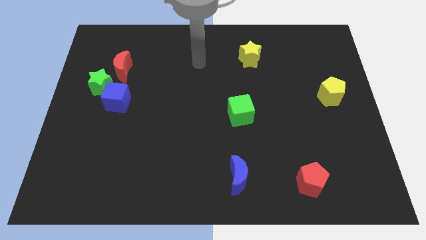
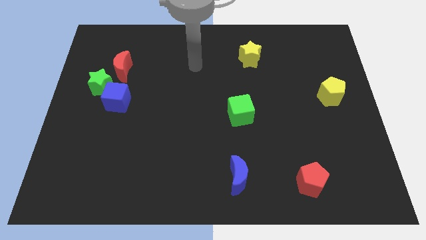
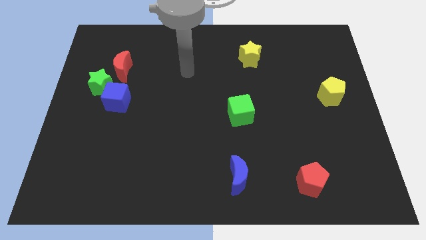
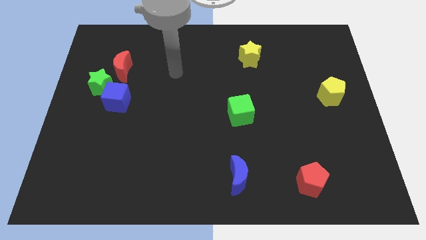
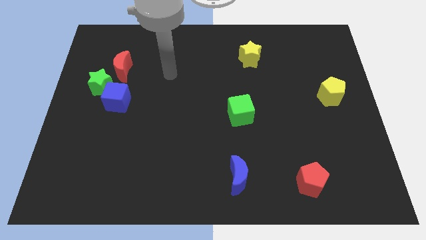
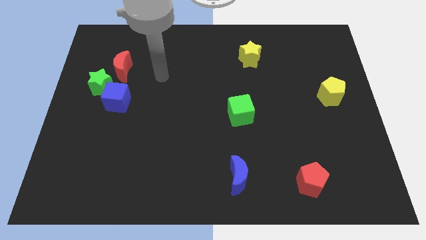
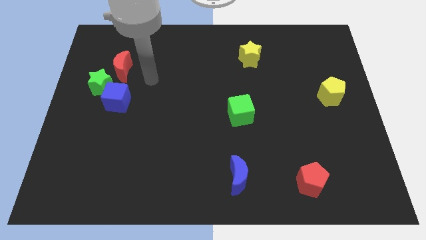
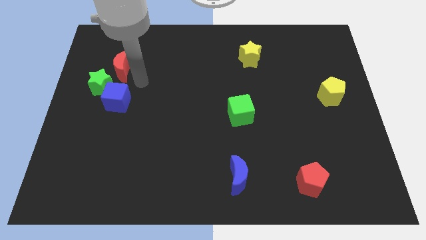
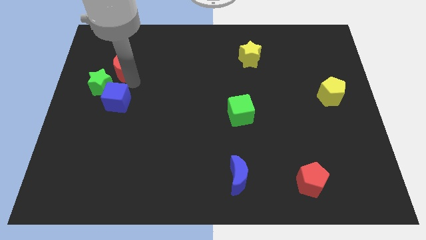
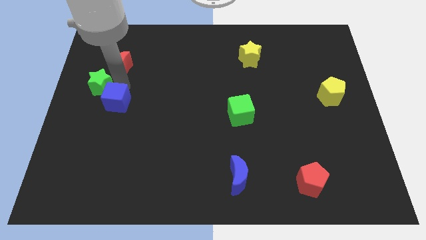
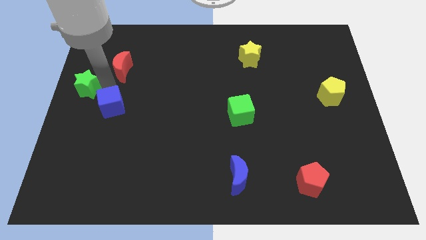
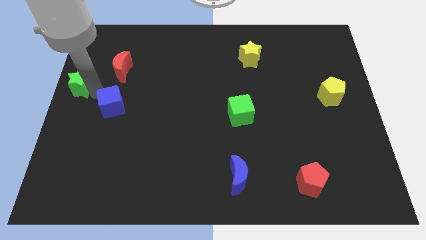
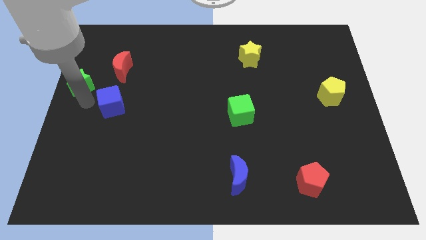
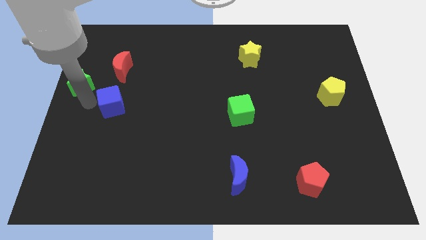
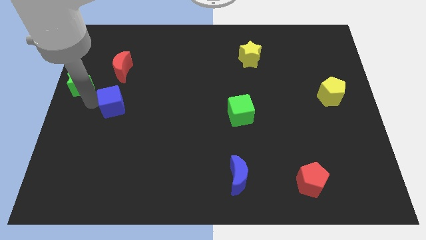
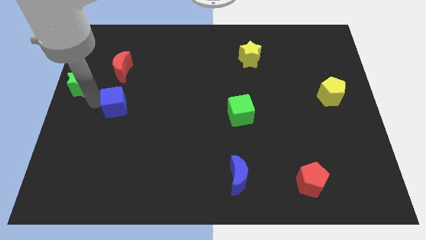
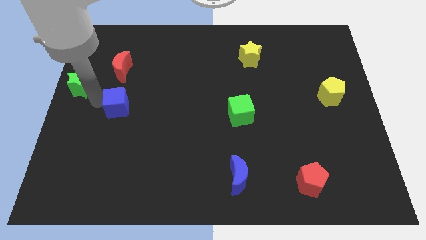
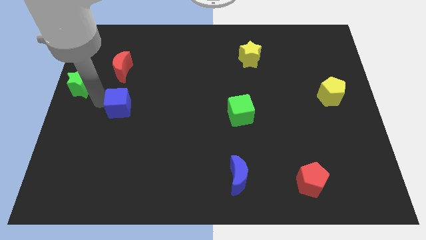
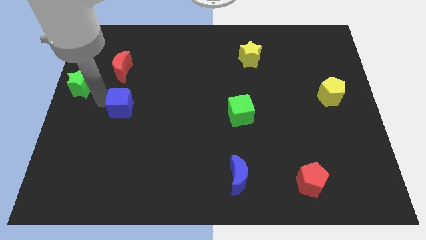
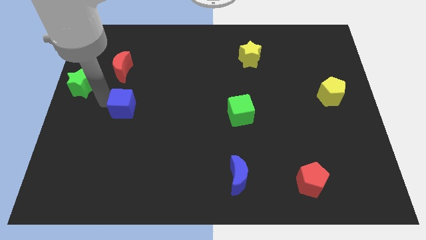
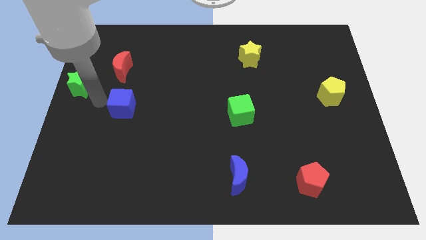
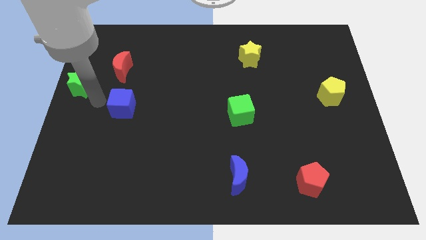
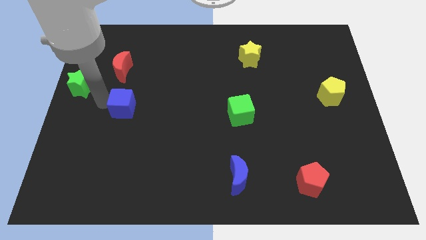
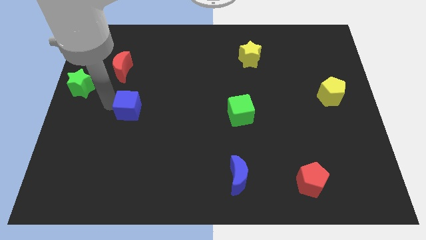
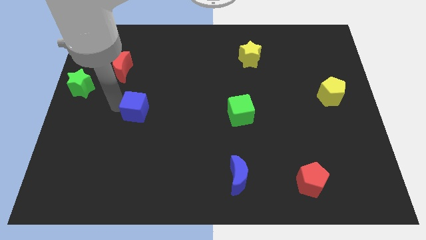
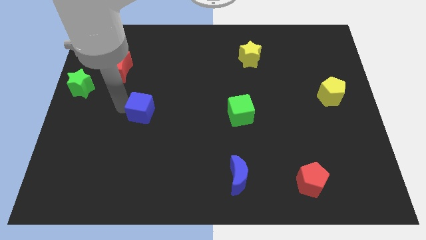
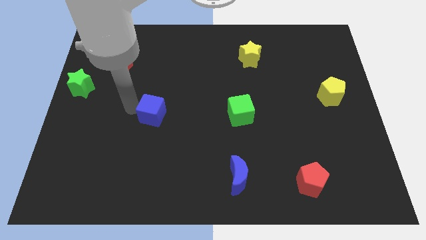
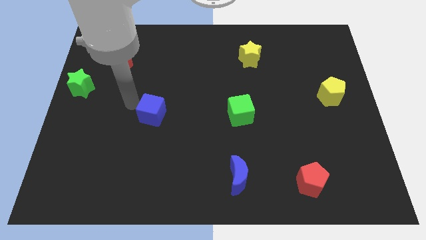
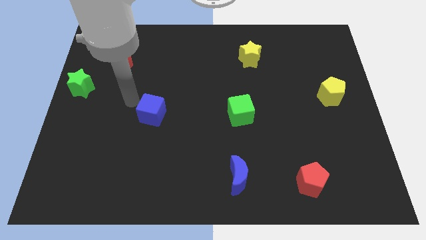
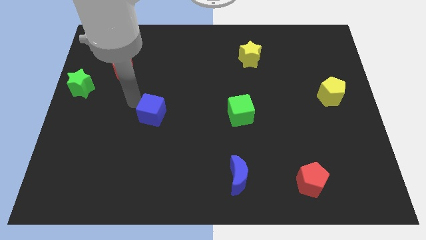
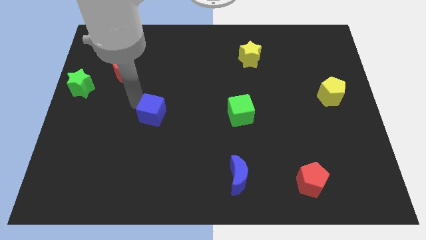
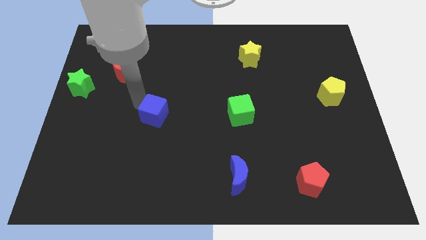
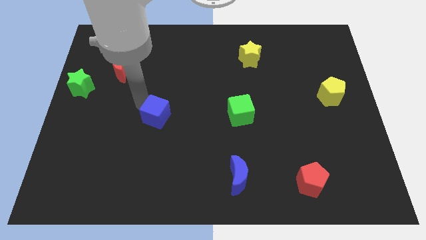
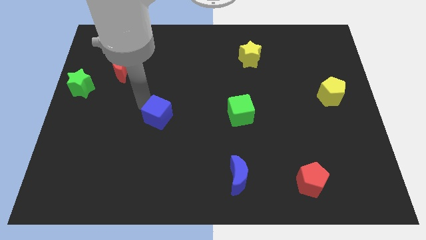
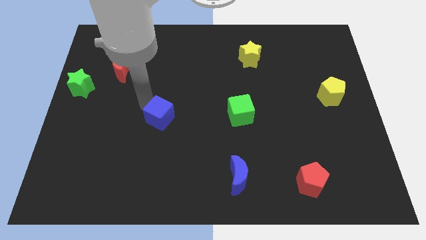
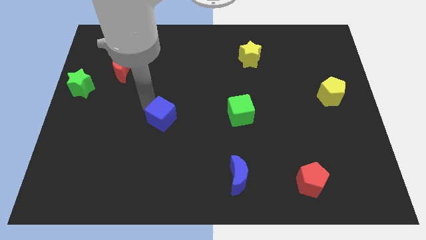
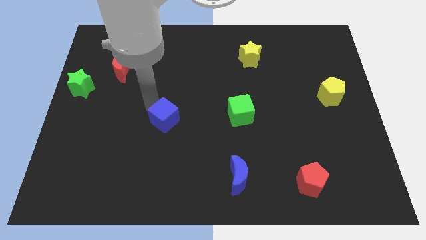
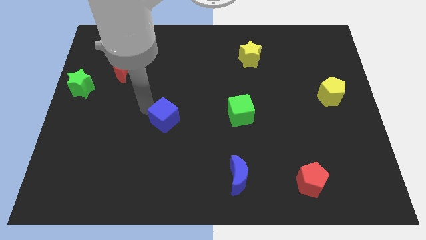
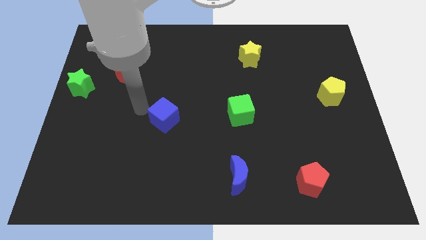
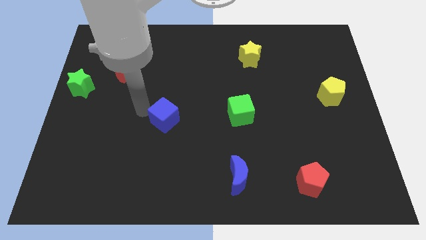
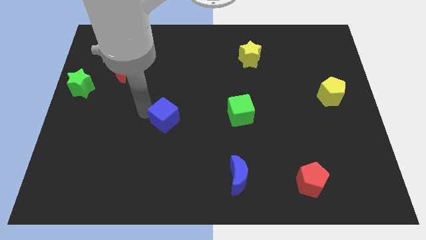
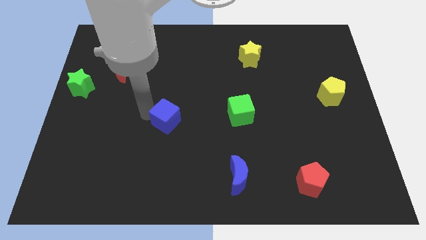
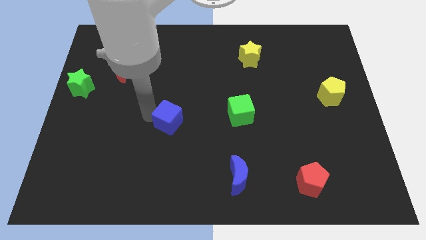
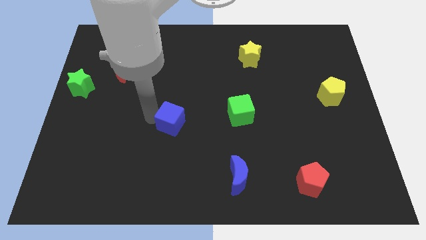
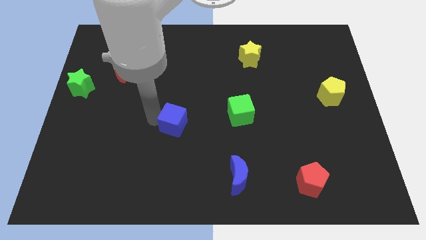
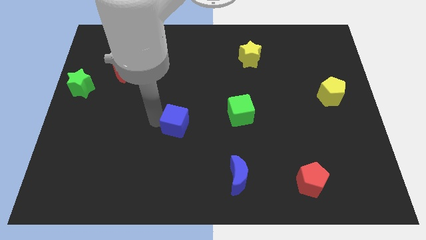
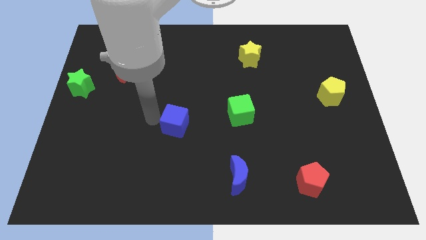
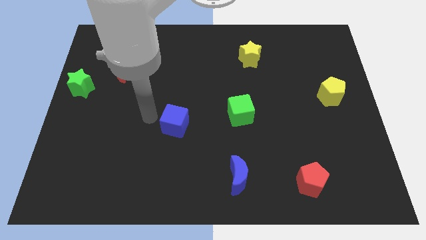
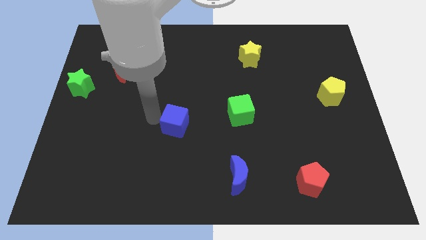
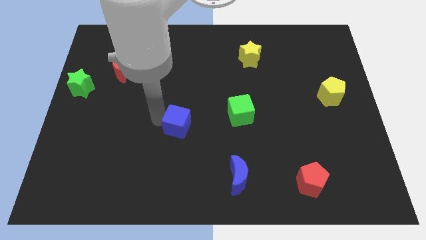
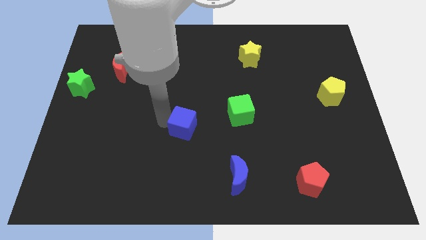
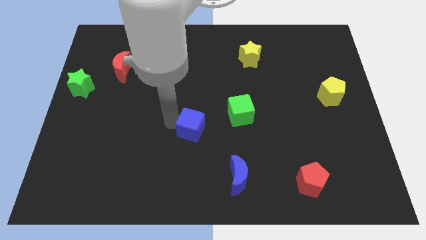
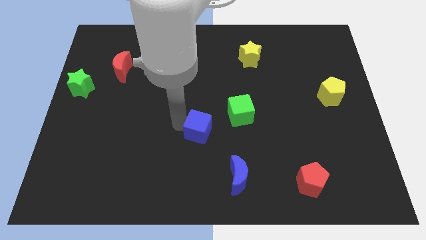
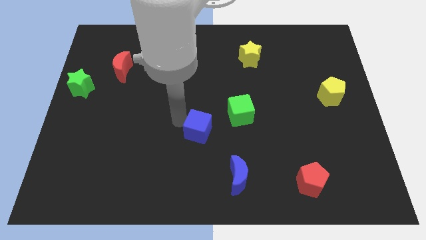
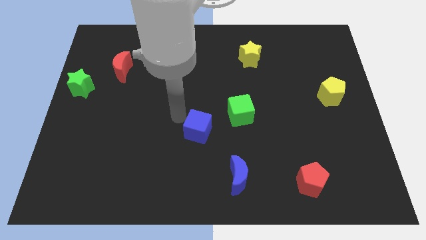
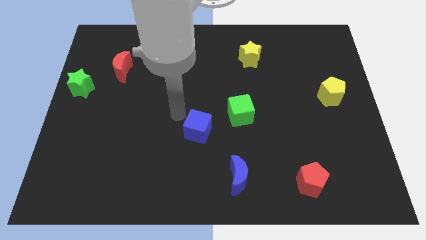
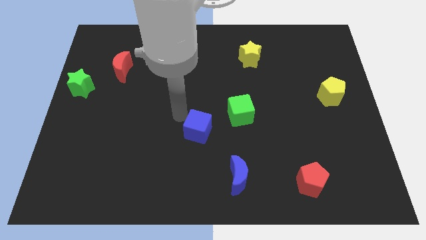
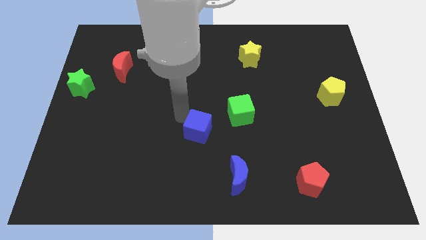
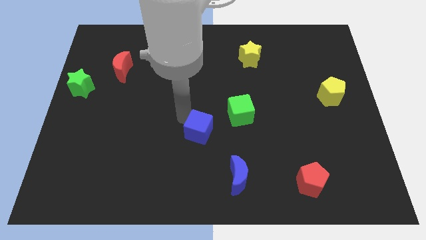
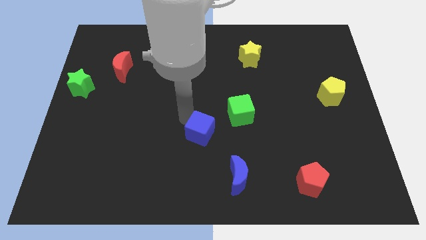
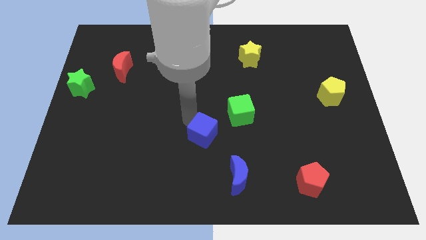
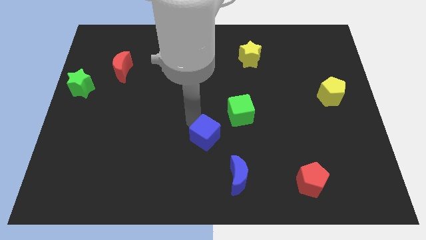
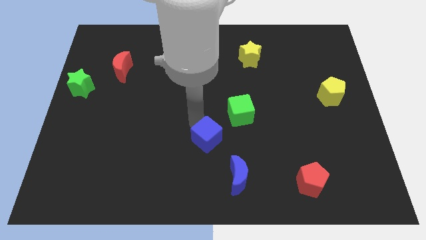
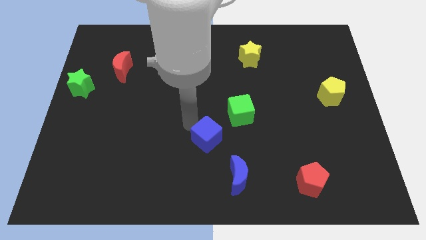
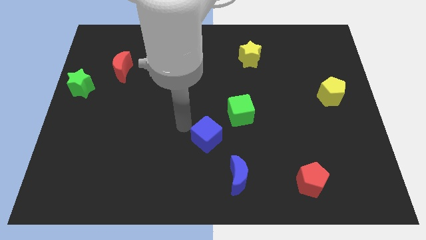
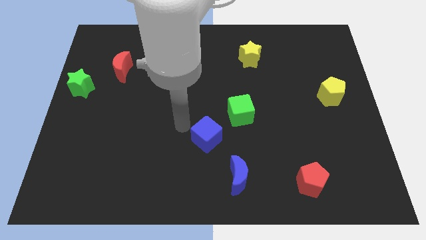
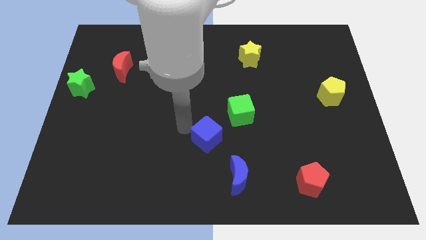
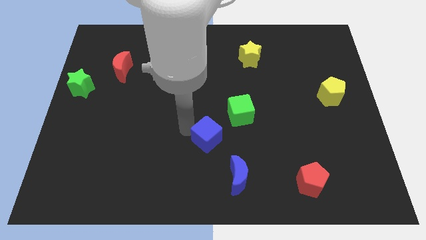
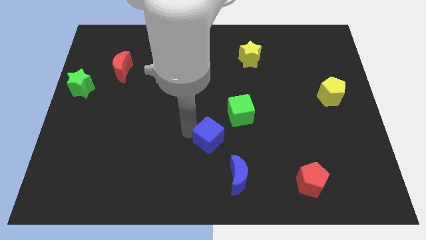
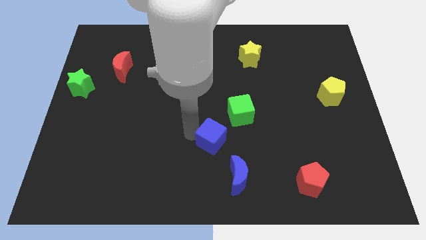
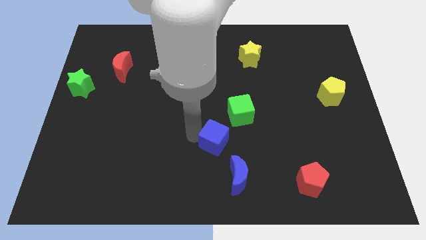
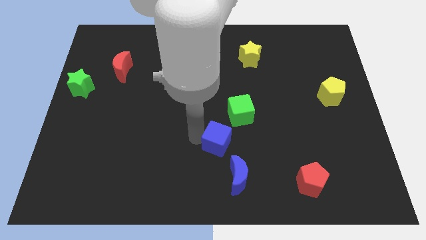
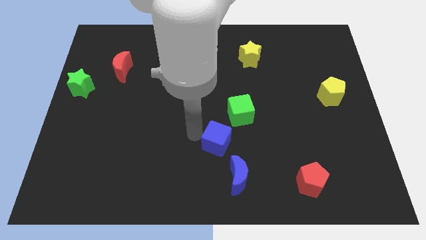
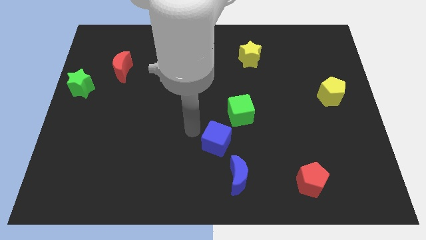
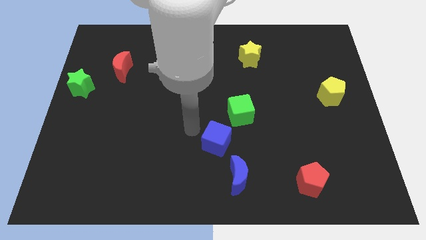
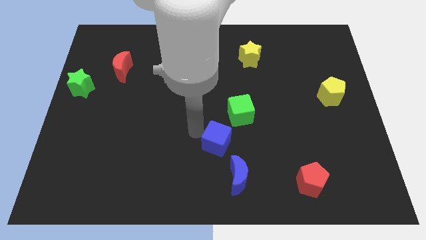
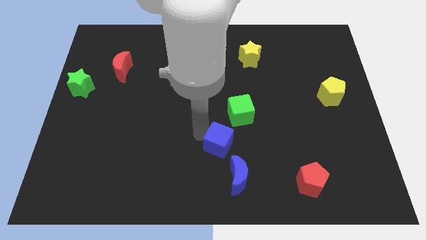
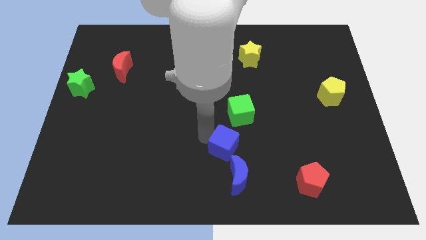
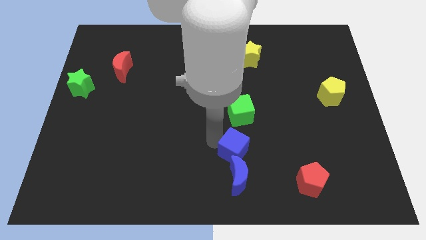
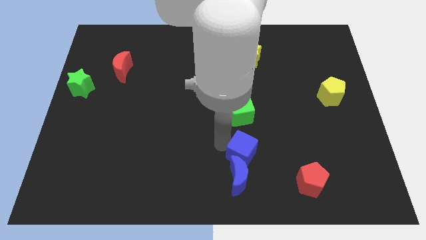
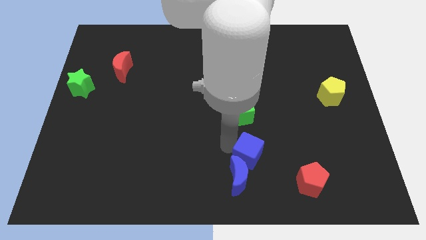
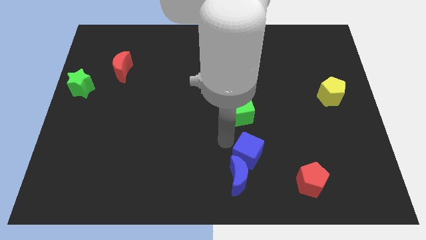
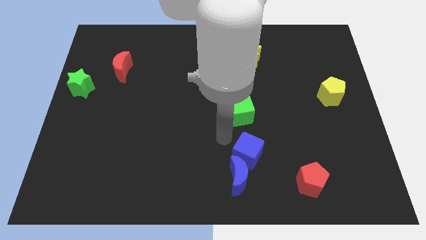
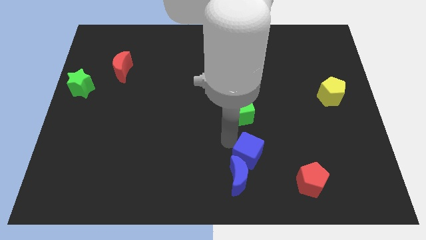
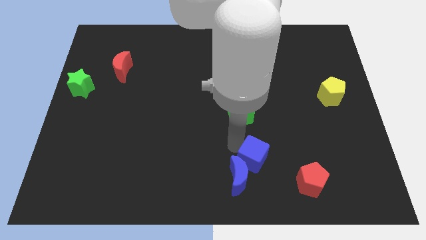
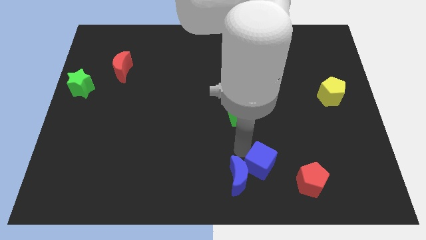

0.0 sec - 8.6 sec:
slide the blue cube just left of the red pentagon
